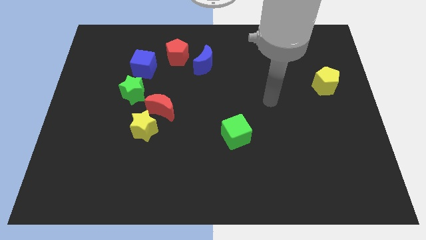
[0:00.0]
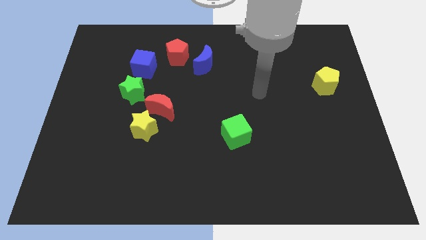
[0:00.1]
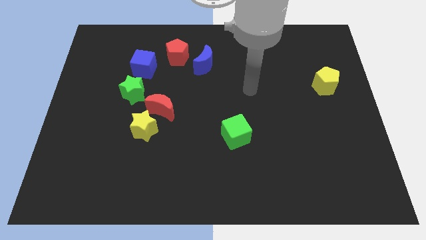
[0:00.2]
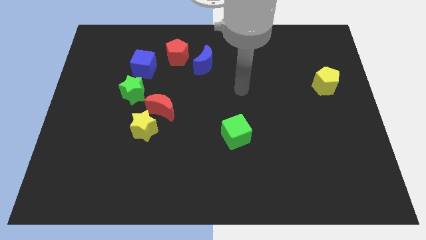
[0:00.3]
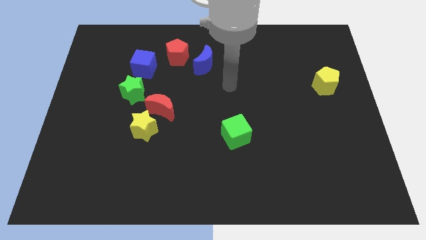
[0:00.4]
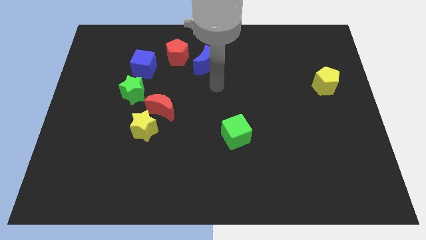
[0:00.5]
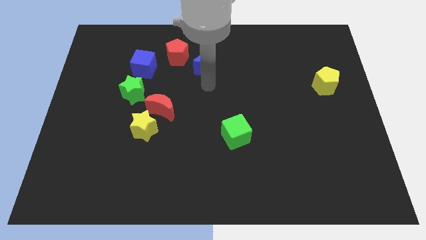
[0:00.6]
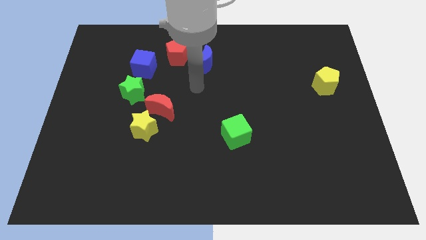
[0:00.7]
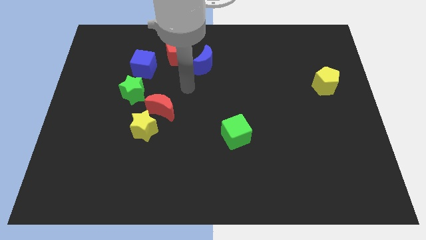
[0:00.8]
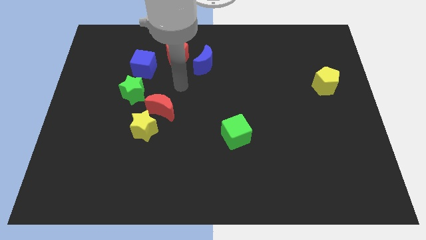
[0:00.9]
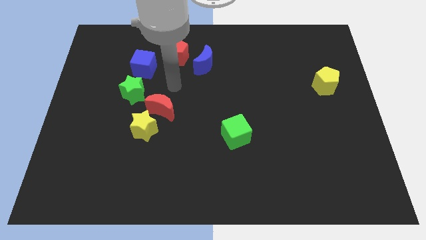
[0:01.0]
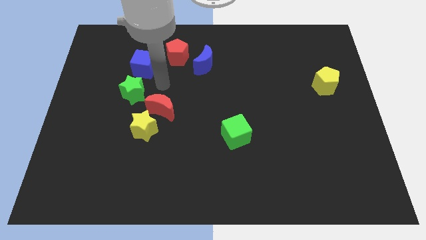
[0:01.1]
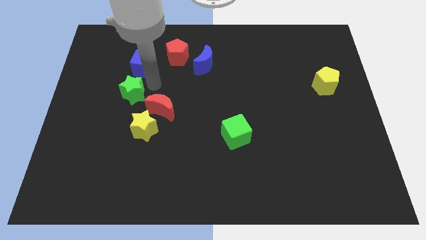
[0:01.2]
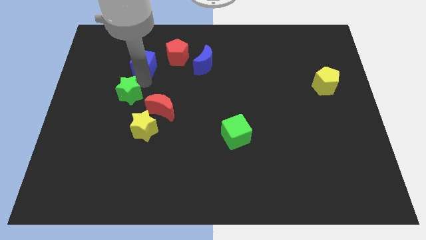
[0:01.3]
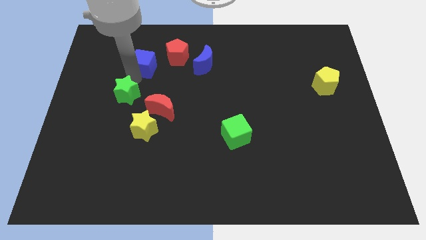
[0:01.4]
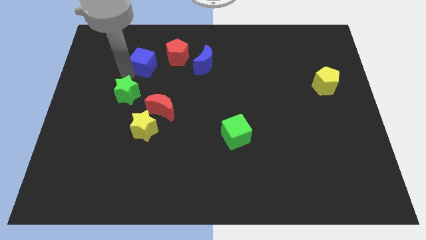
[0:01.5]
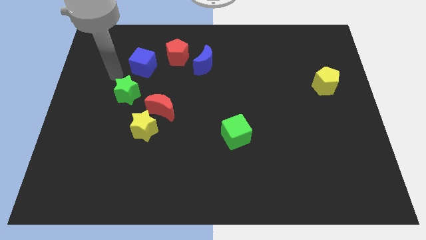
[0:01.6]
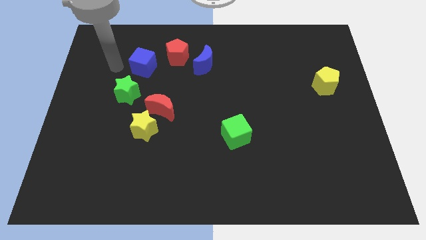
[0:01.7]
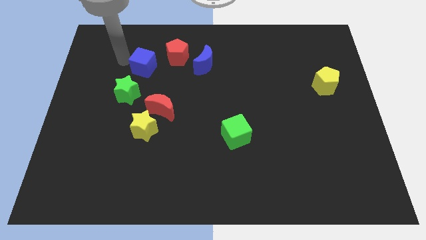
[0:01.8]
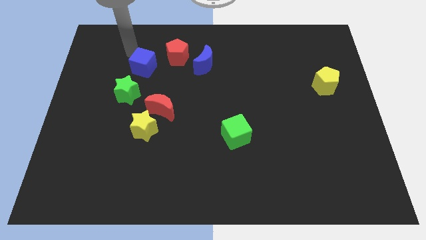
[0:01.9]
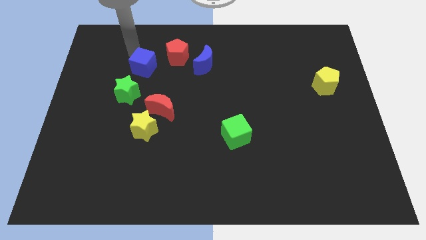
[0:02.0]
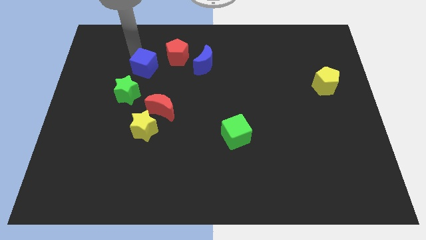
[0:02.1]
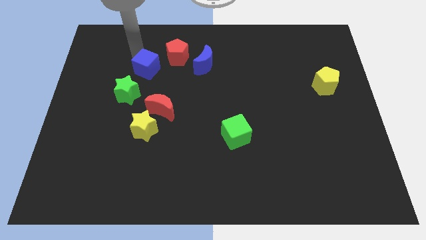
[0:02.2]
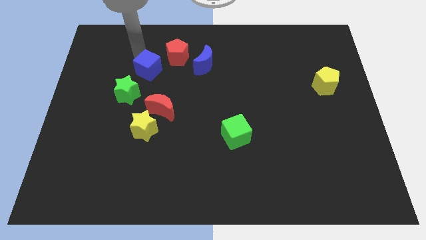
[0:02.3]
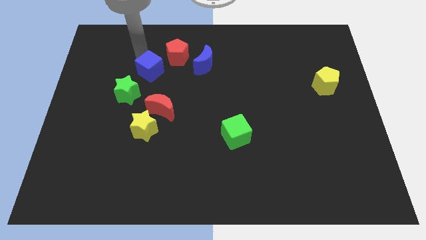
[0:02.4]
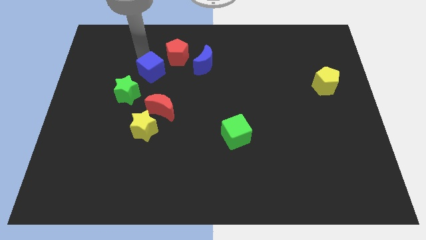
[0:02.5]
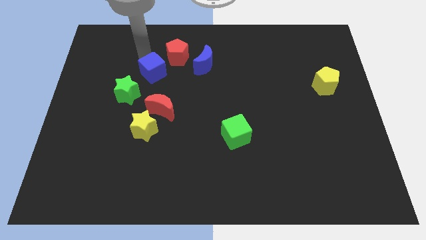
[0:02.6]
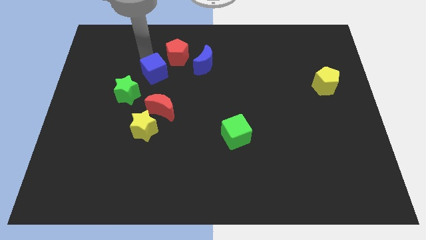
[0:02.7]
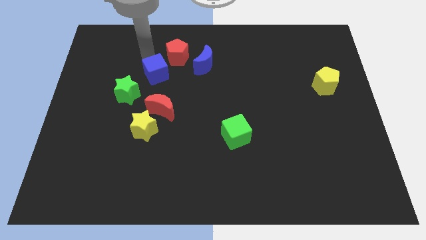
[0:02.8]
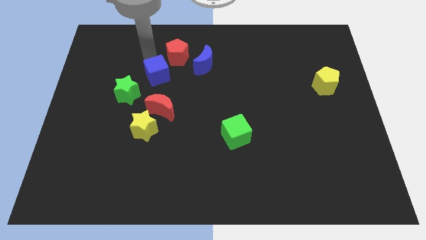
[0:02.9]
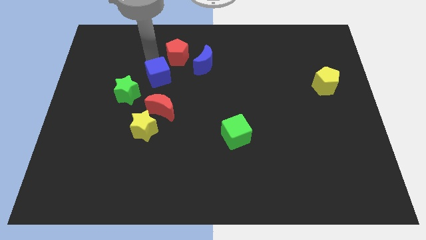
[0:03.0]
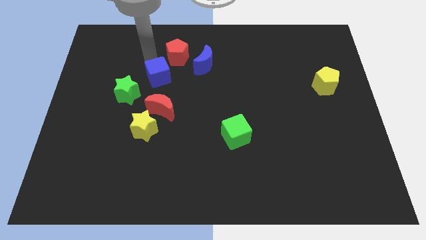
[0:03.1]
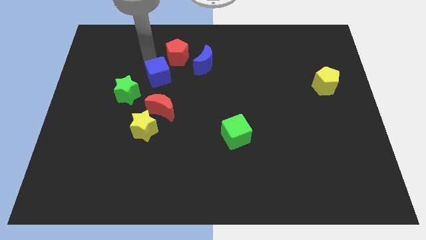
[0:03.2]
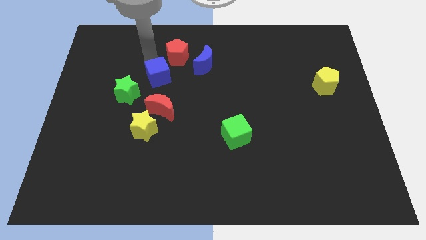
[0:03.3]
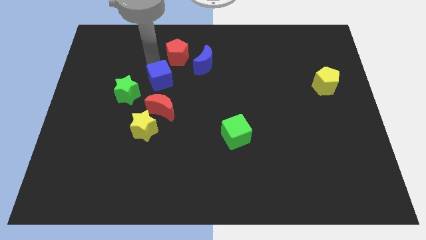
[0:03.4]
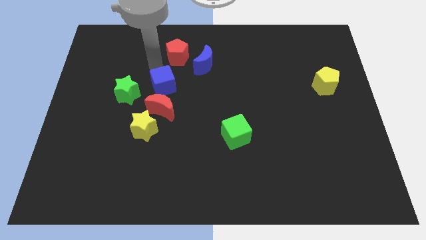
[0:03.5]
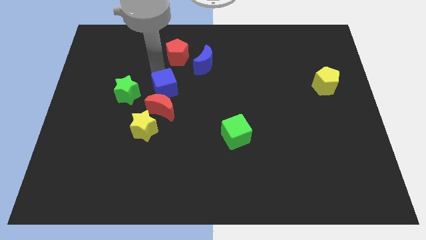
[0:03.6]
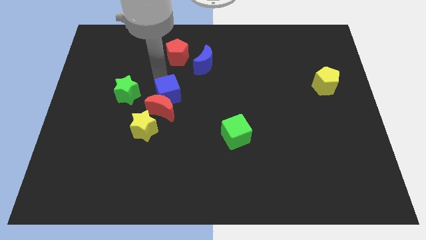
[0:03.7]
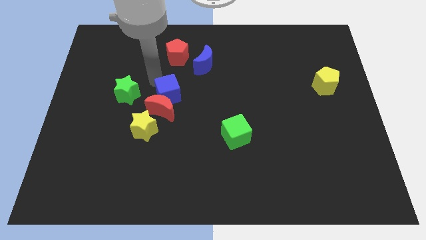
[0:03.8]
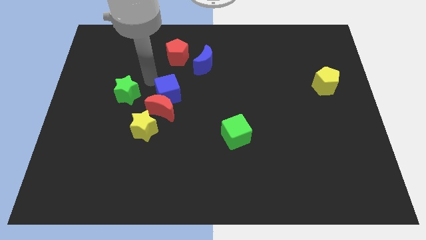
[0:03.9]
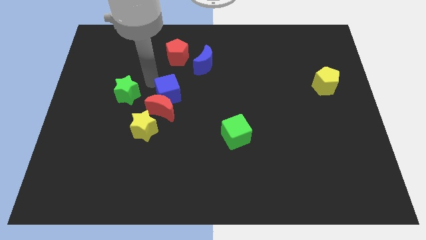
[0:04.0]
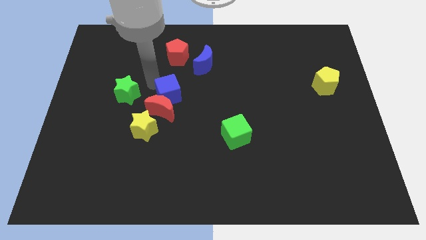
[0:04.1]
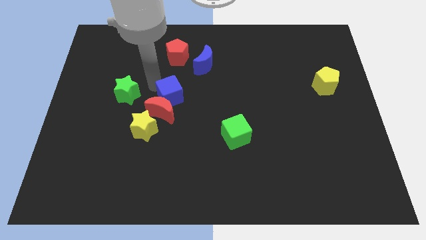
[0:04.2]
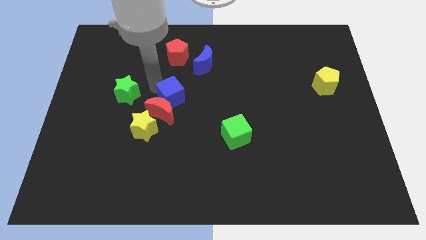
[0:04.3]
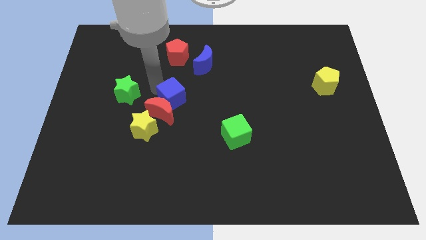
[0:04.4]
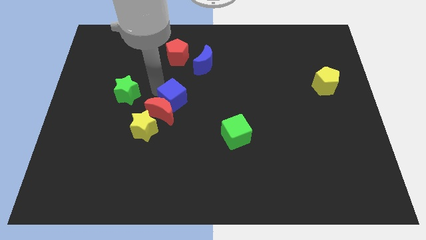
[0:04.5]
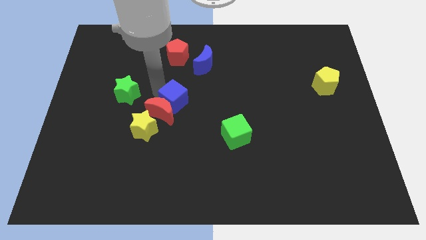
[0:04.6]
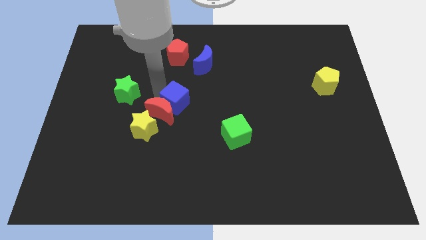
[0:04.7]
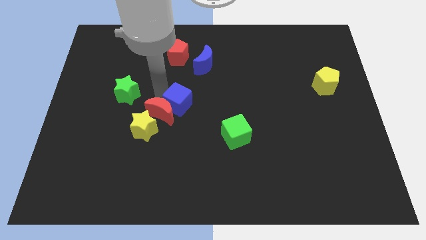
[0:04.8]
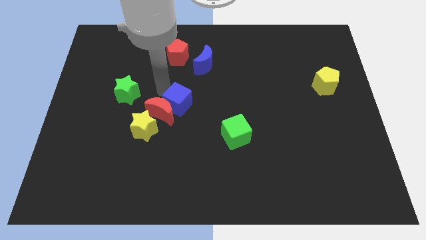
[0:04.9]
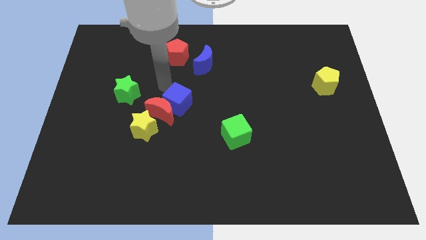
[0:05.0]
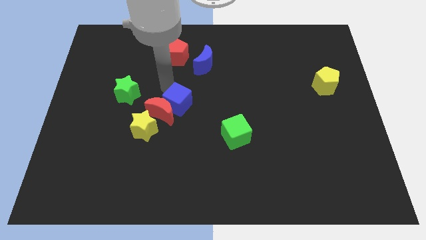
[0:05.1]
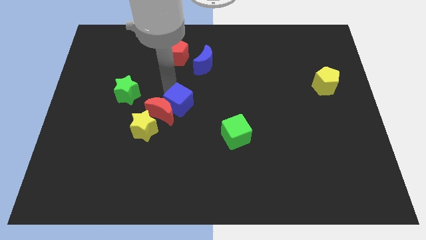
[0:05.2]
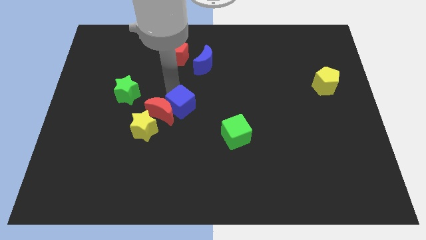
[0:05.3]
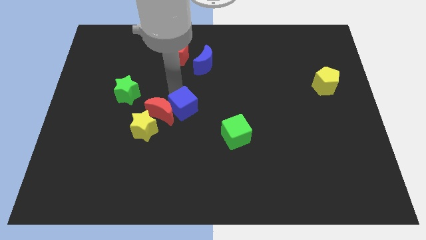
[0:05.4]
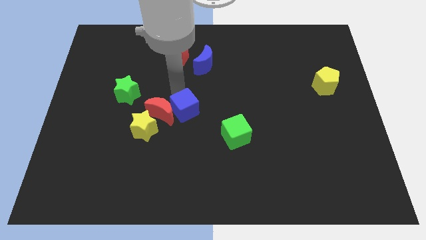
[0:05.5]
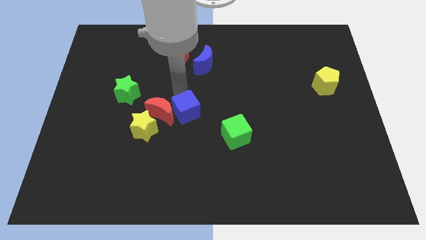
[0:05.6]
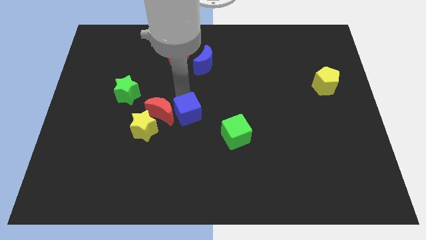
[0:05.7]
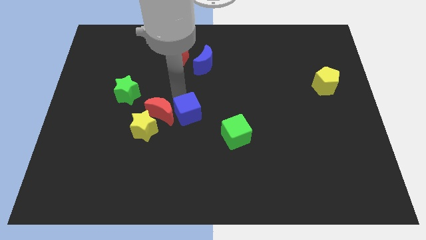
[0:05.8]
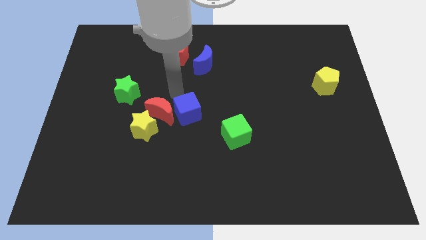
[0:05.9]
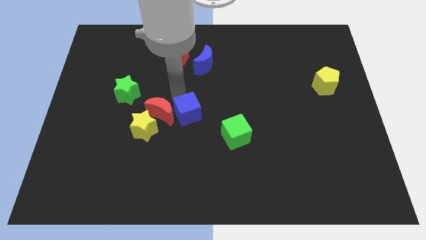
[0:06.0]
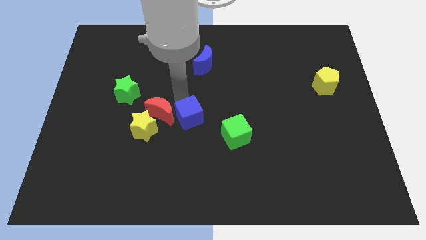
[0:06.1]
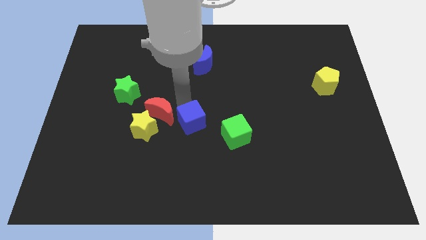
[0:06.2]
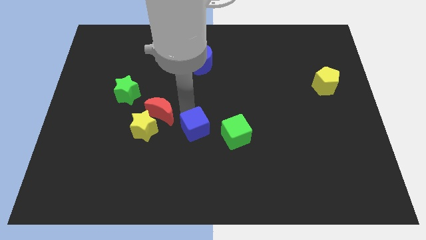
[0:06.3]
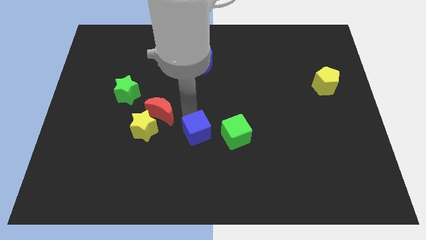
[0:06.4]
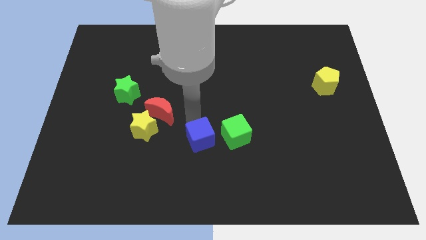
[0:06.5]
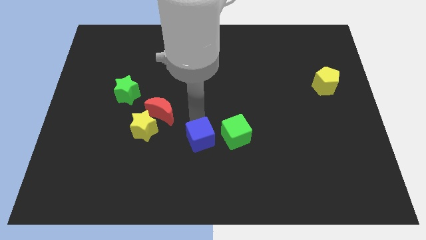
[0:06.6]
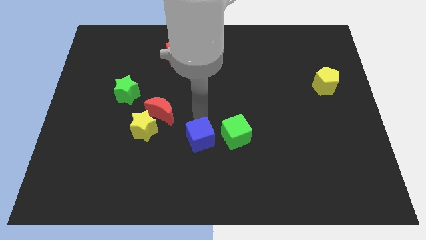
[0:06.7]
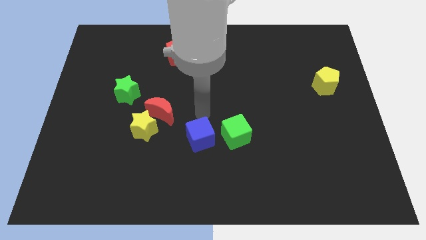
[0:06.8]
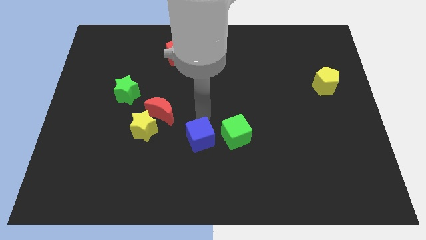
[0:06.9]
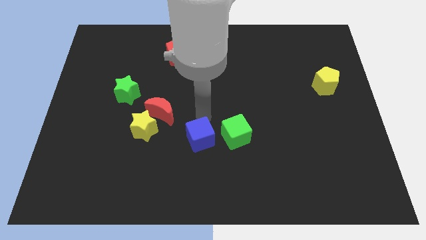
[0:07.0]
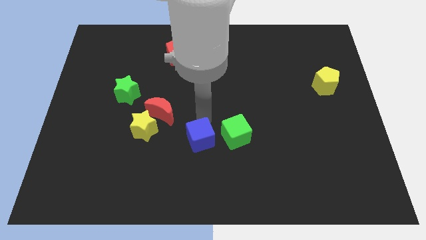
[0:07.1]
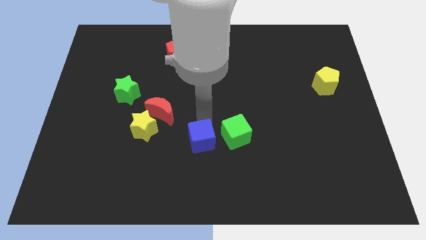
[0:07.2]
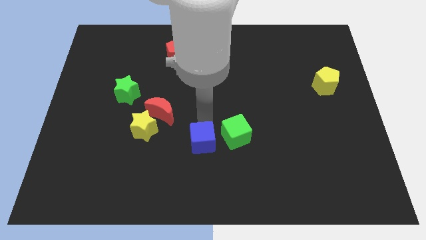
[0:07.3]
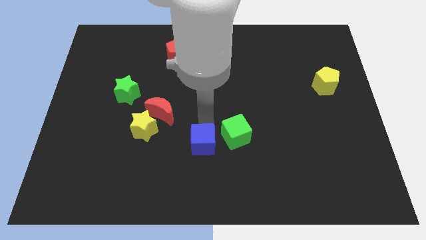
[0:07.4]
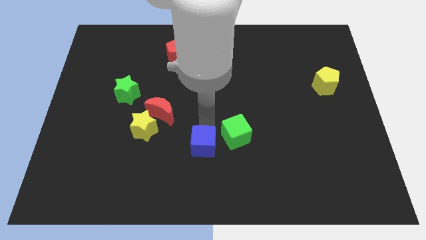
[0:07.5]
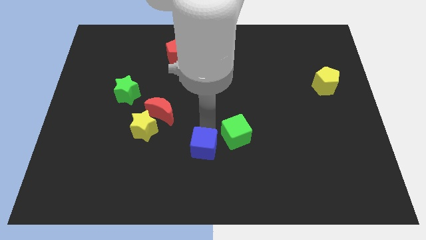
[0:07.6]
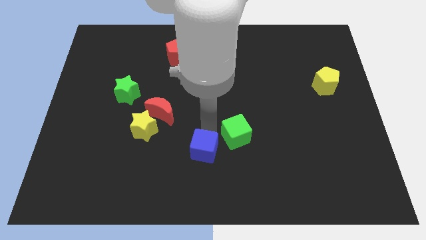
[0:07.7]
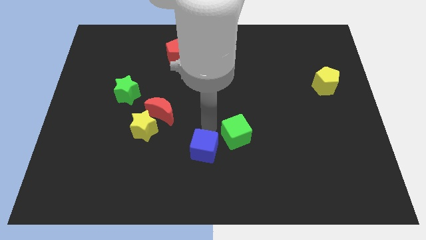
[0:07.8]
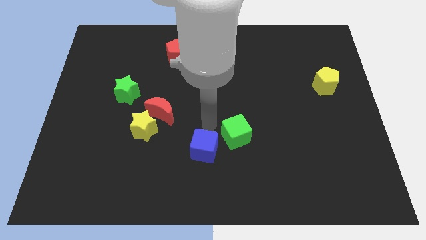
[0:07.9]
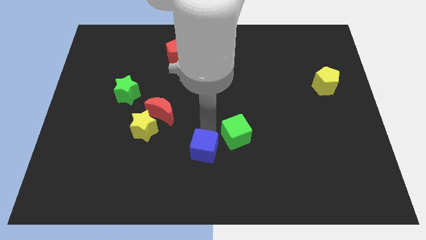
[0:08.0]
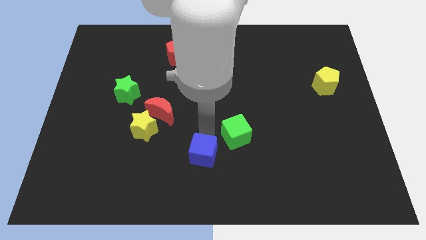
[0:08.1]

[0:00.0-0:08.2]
slide the blue cube to the bottom

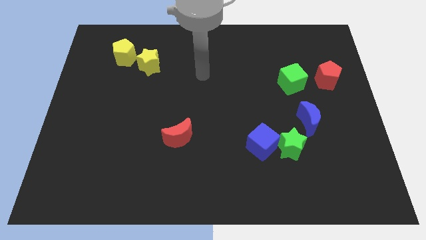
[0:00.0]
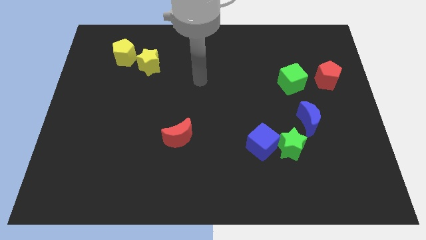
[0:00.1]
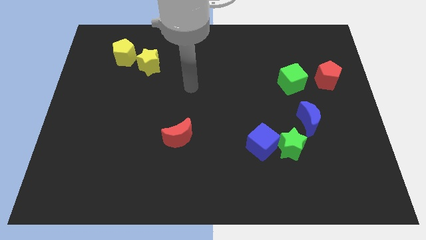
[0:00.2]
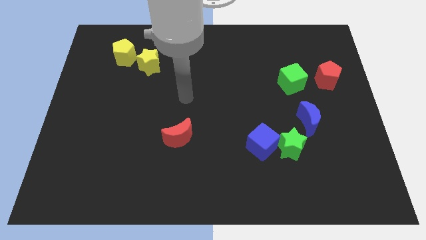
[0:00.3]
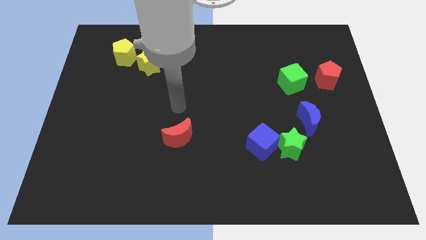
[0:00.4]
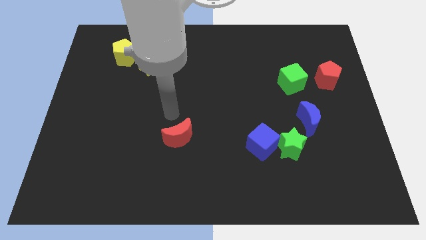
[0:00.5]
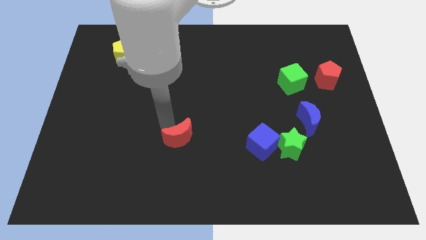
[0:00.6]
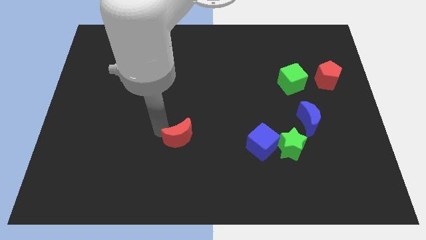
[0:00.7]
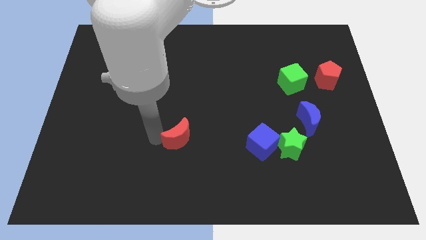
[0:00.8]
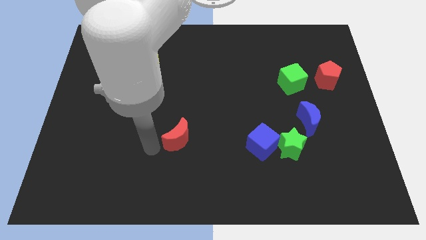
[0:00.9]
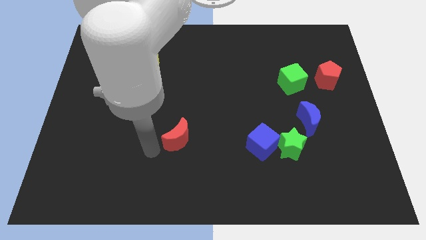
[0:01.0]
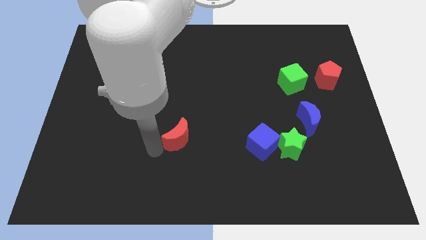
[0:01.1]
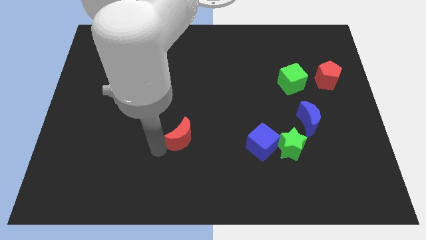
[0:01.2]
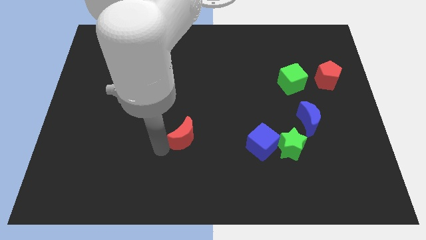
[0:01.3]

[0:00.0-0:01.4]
push the red moon to the center
